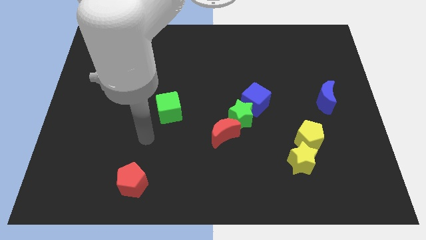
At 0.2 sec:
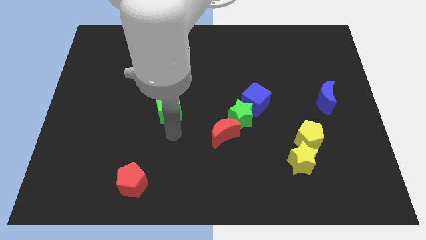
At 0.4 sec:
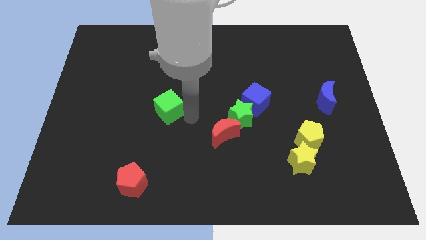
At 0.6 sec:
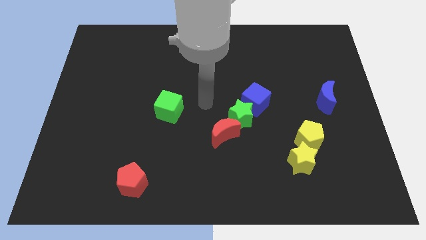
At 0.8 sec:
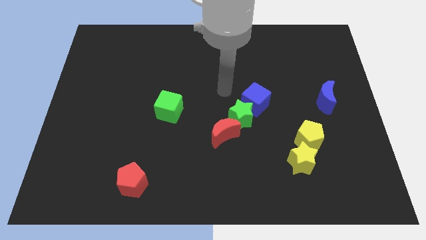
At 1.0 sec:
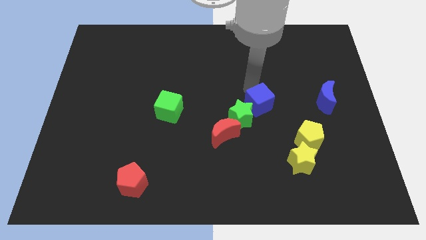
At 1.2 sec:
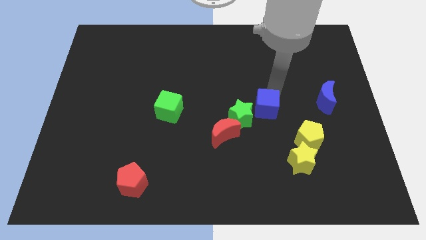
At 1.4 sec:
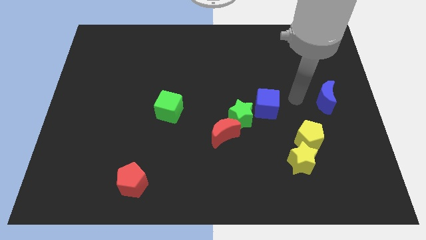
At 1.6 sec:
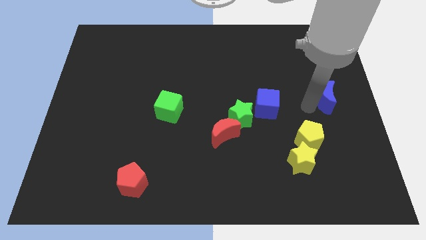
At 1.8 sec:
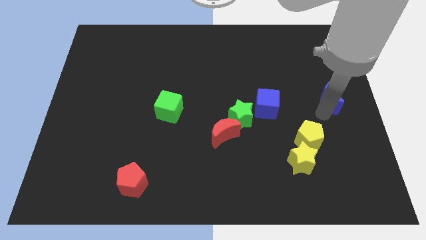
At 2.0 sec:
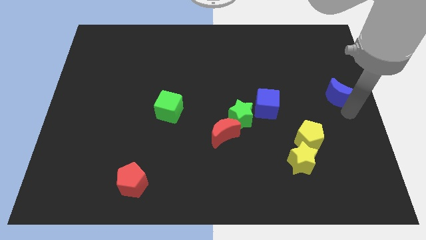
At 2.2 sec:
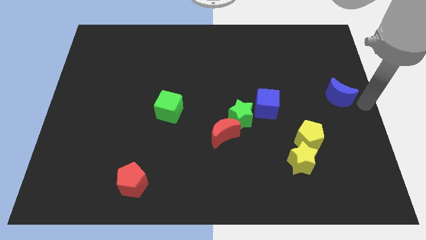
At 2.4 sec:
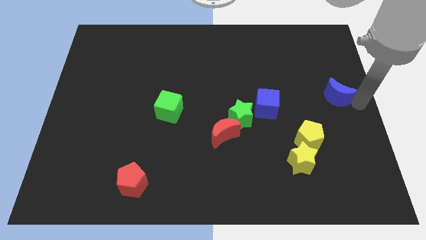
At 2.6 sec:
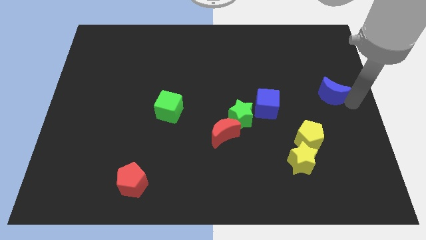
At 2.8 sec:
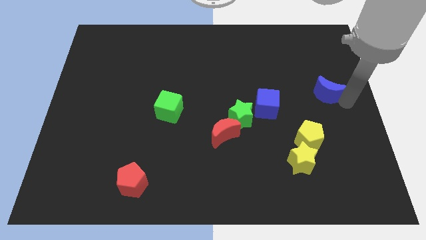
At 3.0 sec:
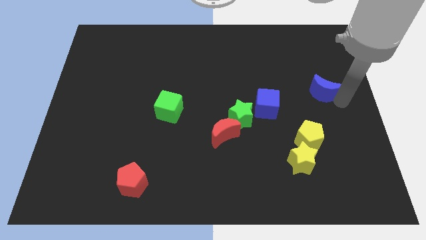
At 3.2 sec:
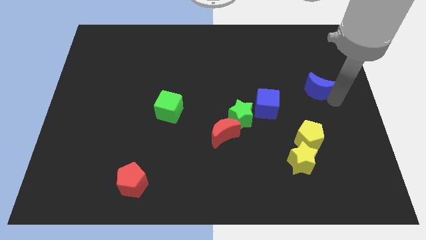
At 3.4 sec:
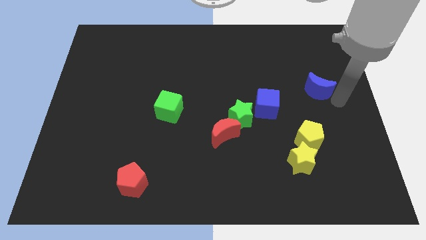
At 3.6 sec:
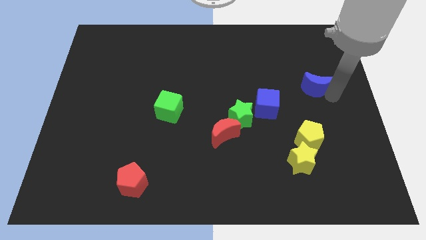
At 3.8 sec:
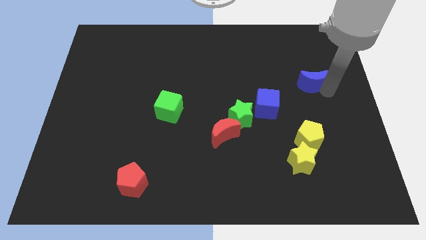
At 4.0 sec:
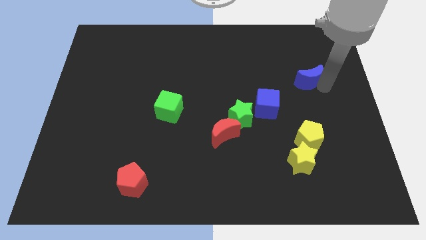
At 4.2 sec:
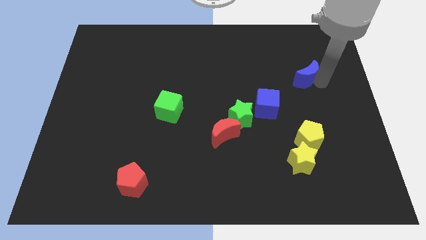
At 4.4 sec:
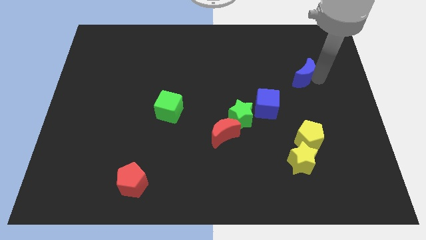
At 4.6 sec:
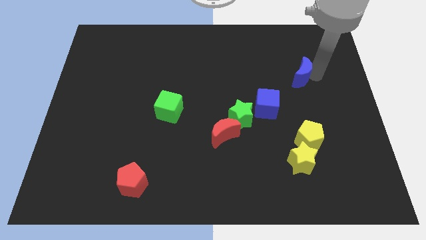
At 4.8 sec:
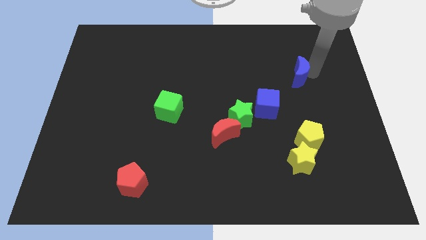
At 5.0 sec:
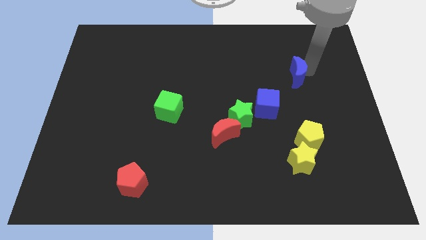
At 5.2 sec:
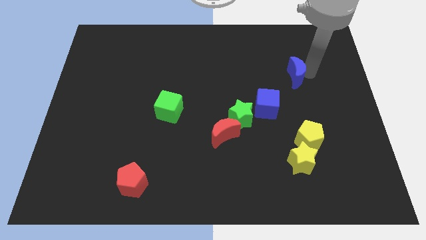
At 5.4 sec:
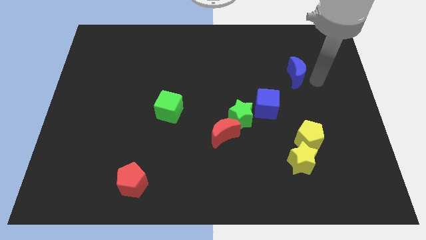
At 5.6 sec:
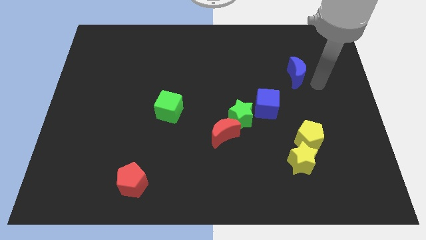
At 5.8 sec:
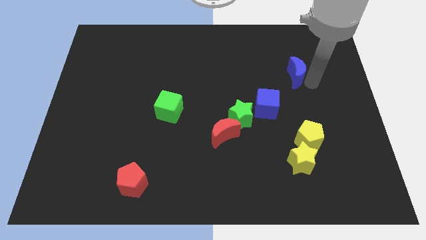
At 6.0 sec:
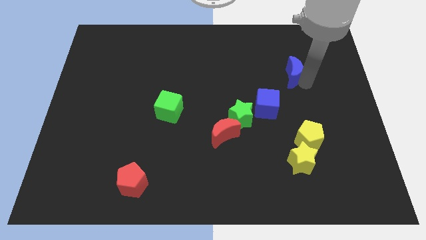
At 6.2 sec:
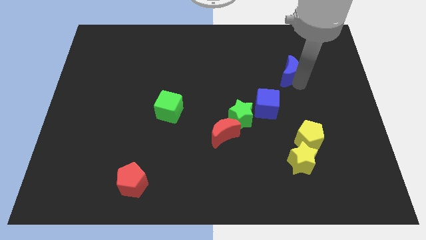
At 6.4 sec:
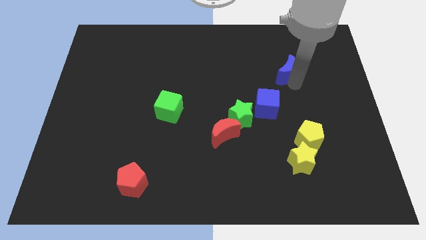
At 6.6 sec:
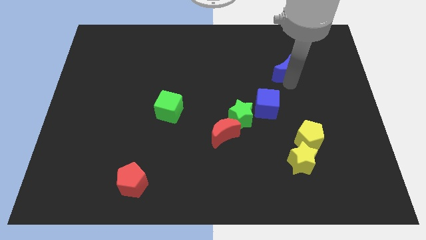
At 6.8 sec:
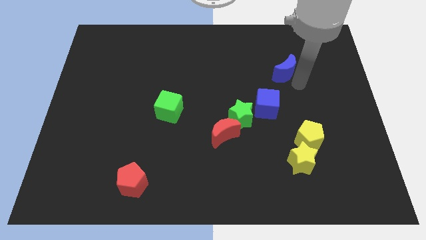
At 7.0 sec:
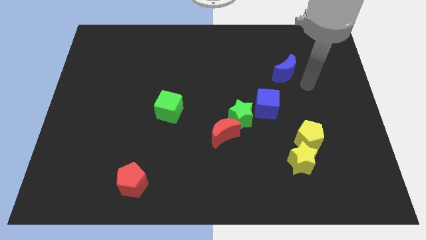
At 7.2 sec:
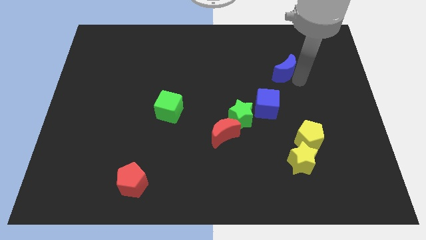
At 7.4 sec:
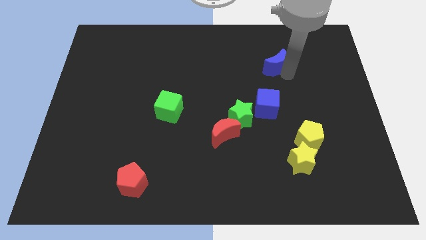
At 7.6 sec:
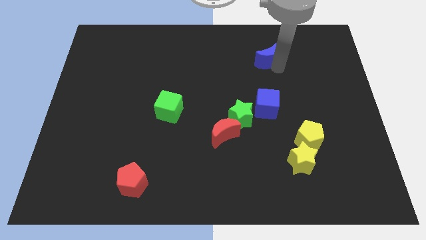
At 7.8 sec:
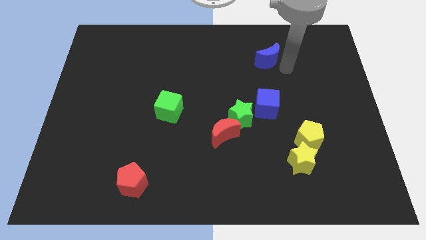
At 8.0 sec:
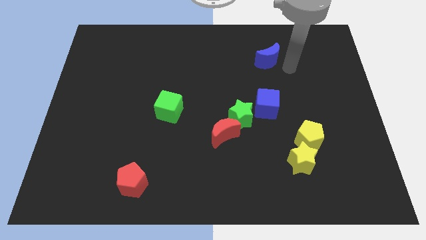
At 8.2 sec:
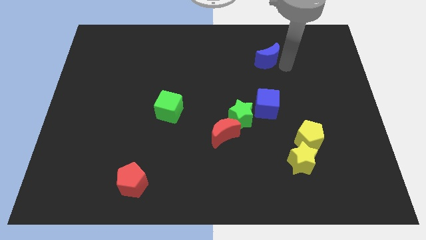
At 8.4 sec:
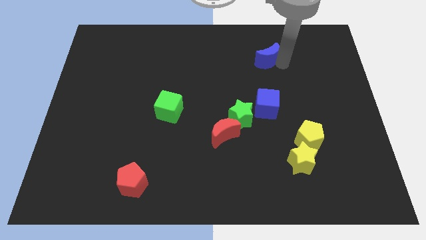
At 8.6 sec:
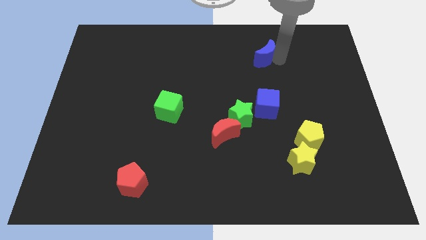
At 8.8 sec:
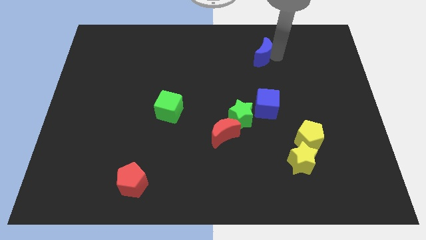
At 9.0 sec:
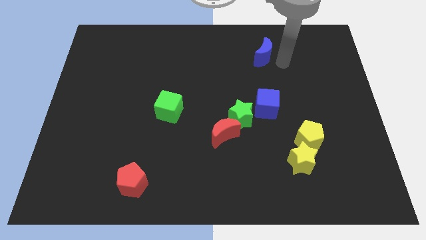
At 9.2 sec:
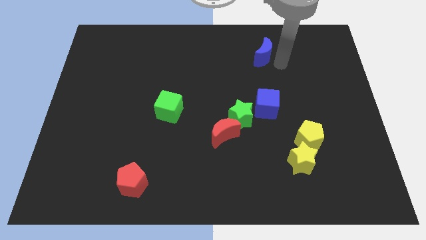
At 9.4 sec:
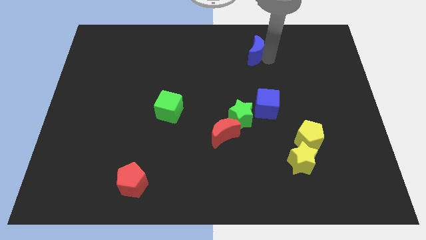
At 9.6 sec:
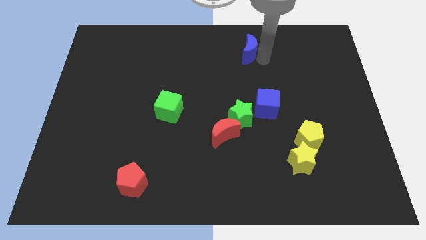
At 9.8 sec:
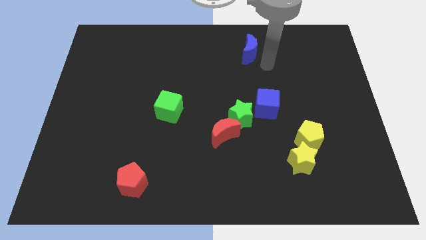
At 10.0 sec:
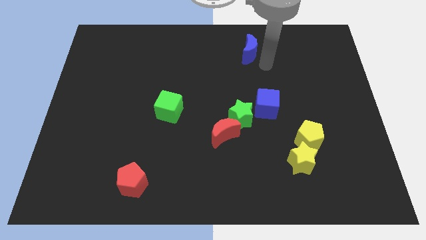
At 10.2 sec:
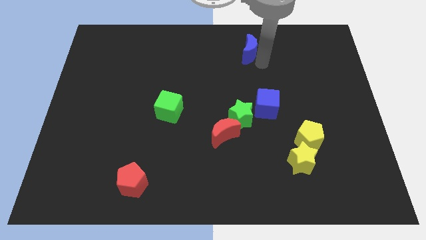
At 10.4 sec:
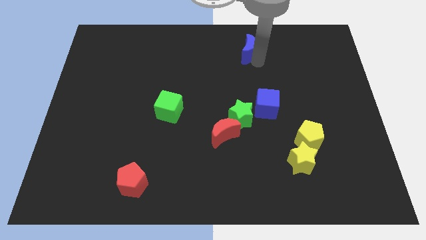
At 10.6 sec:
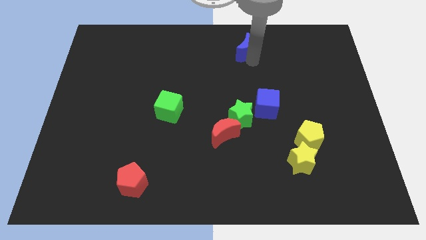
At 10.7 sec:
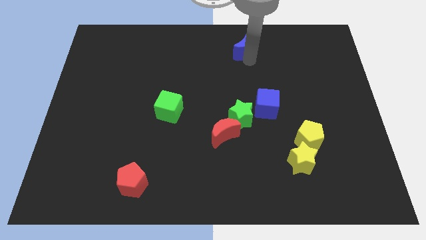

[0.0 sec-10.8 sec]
push the blue moon to the top side

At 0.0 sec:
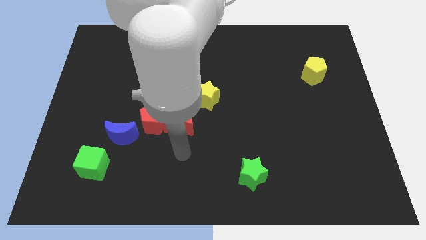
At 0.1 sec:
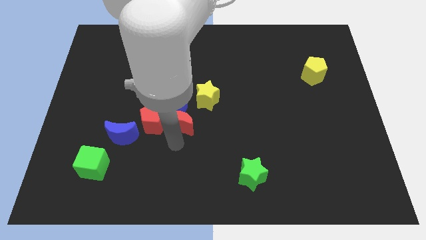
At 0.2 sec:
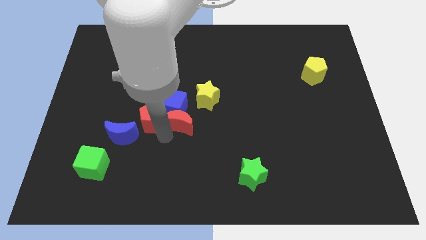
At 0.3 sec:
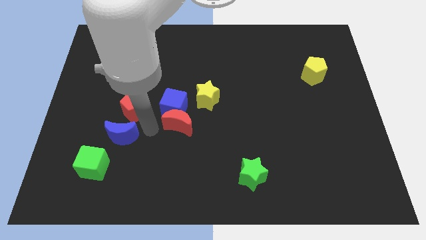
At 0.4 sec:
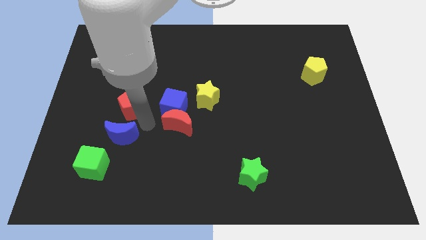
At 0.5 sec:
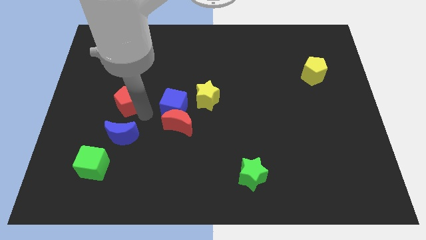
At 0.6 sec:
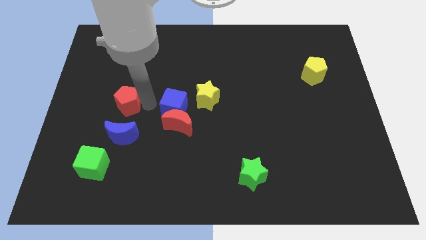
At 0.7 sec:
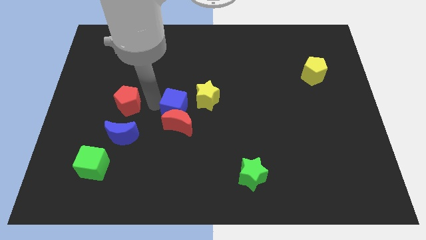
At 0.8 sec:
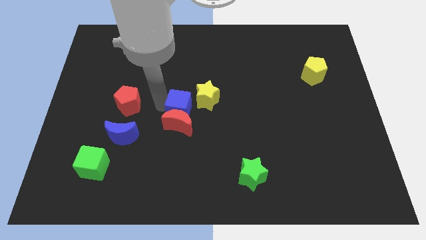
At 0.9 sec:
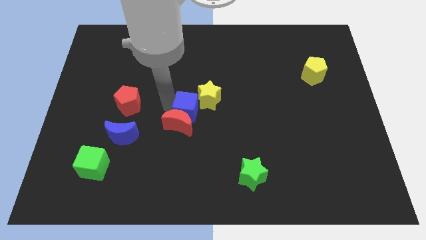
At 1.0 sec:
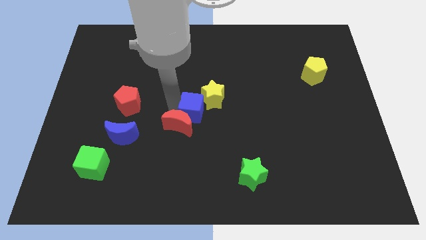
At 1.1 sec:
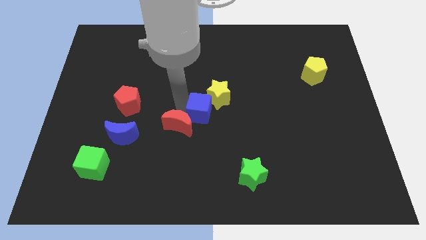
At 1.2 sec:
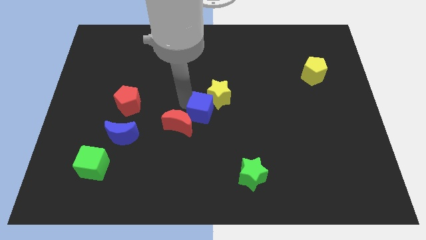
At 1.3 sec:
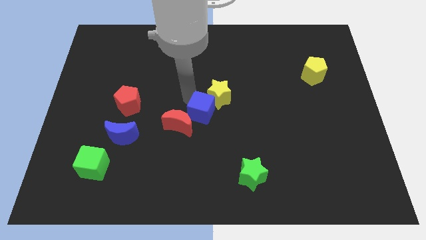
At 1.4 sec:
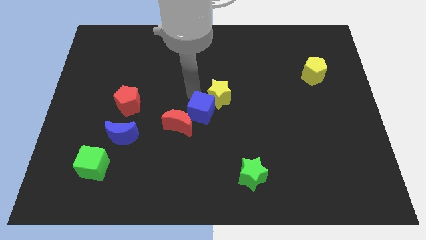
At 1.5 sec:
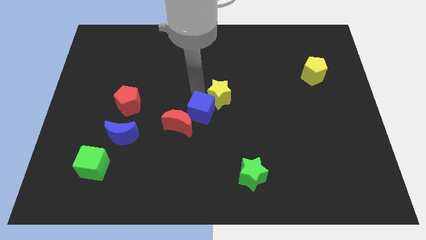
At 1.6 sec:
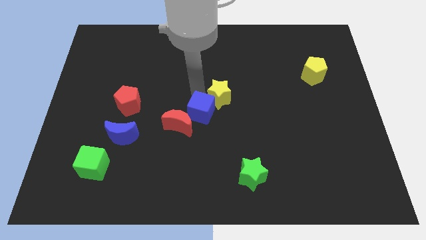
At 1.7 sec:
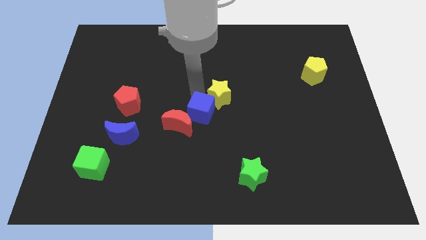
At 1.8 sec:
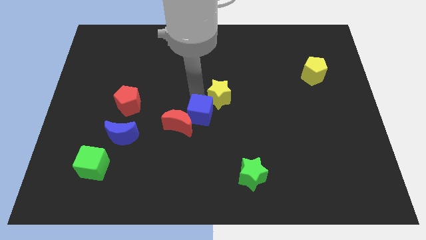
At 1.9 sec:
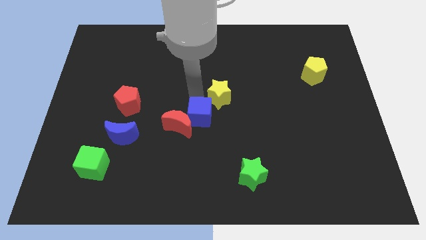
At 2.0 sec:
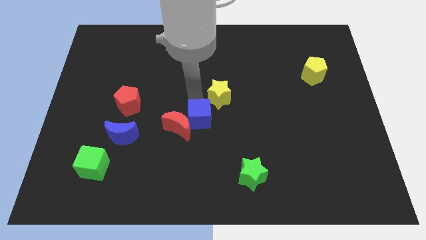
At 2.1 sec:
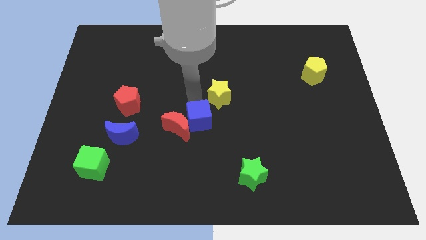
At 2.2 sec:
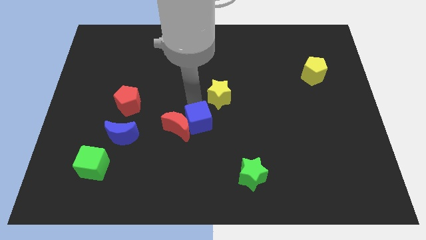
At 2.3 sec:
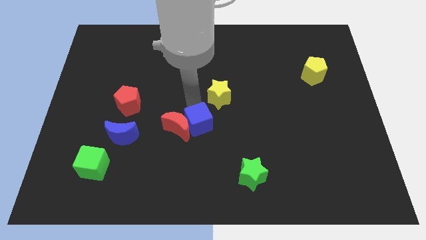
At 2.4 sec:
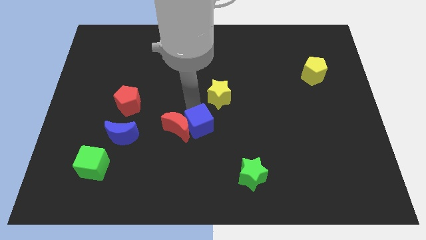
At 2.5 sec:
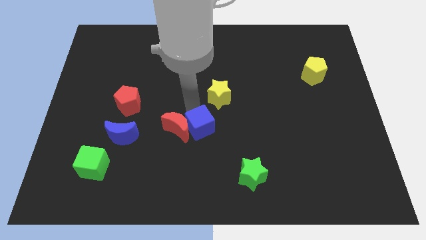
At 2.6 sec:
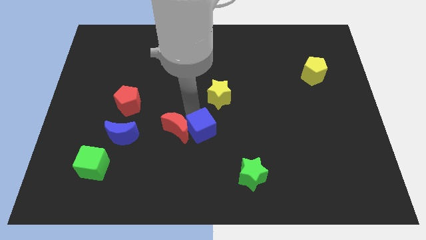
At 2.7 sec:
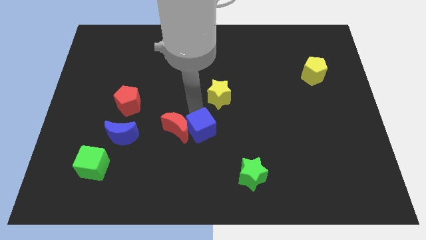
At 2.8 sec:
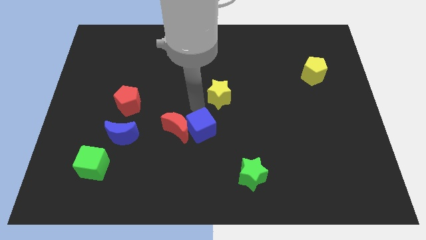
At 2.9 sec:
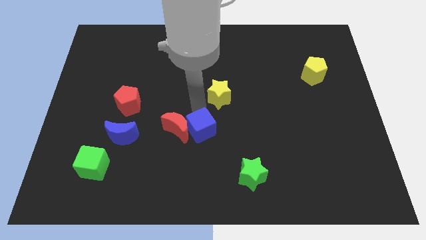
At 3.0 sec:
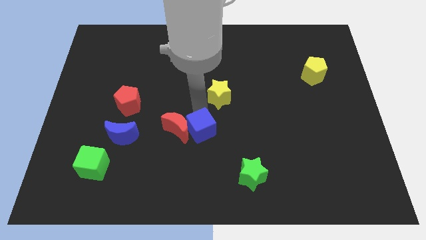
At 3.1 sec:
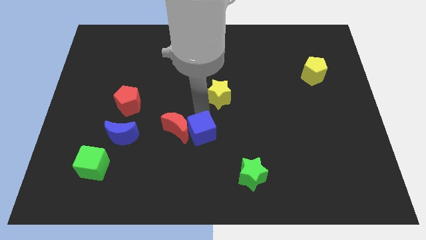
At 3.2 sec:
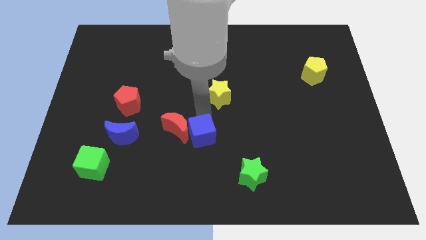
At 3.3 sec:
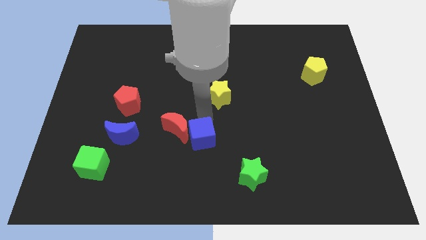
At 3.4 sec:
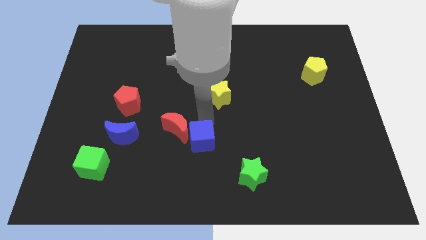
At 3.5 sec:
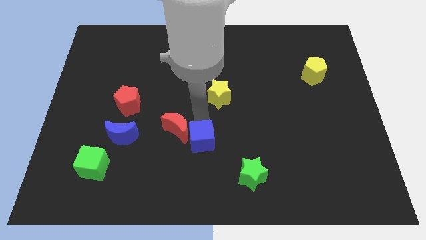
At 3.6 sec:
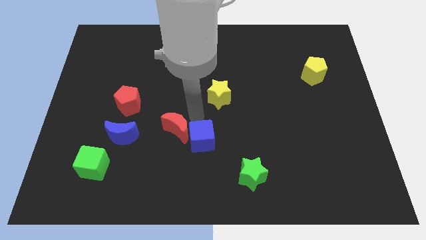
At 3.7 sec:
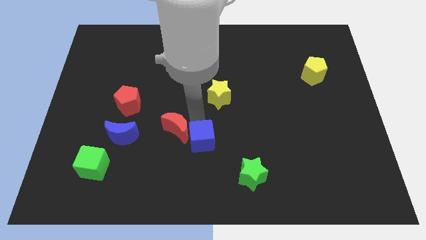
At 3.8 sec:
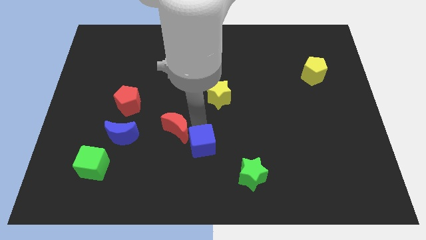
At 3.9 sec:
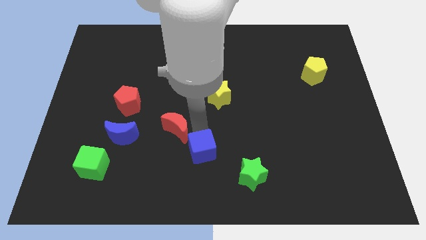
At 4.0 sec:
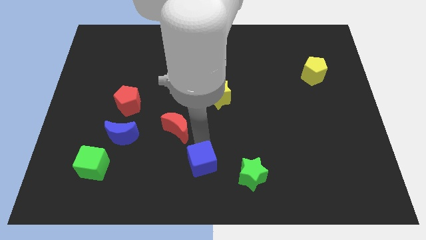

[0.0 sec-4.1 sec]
push the blue cube to the bottom side
